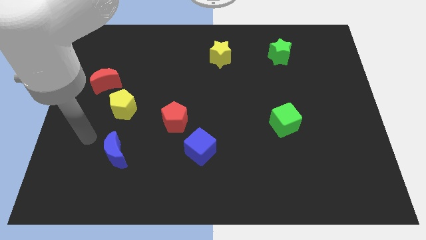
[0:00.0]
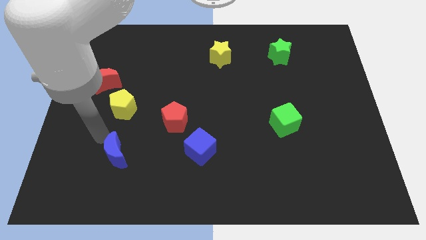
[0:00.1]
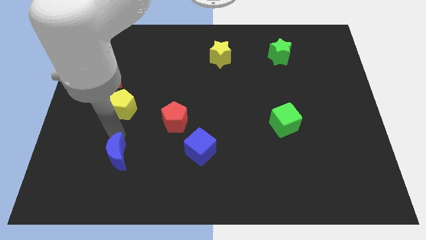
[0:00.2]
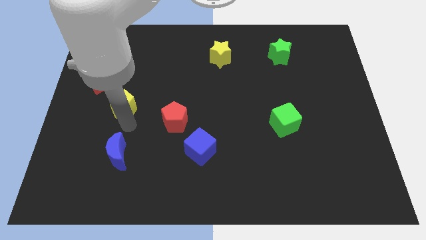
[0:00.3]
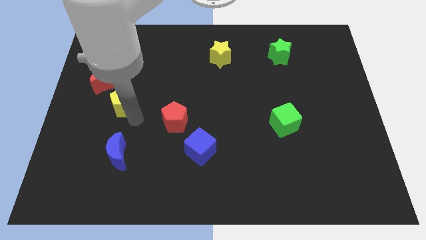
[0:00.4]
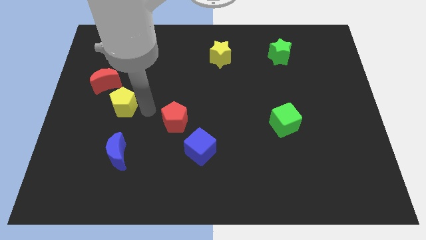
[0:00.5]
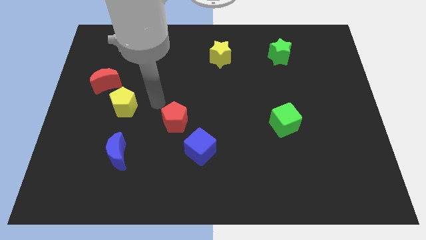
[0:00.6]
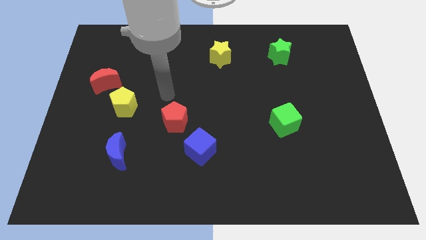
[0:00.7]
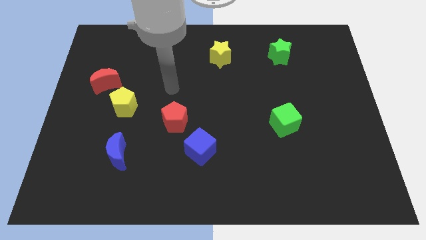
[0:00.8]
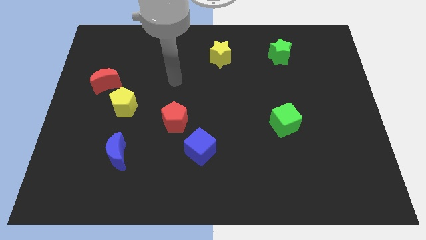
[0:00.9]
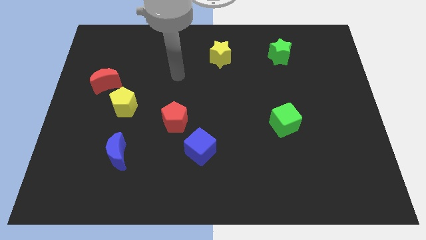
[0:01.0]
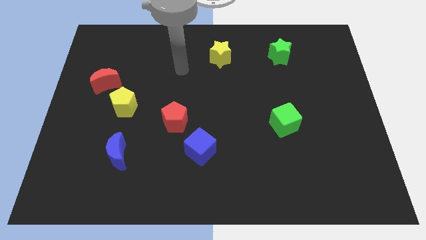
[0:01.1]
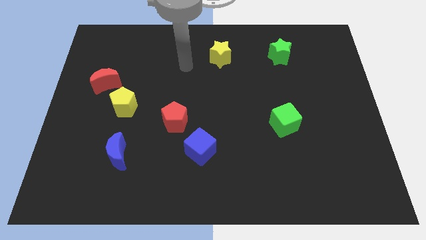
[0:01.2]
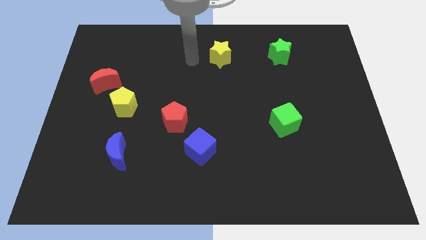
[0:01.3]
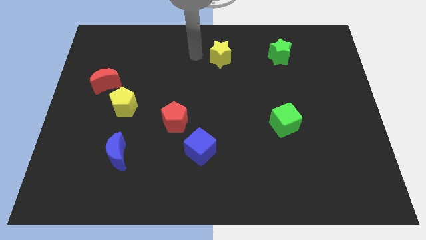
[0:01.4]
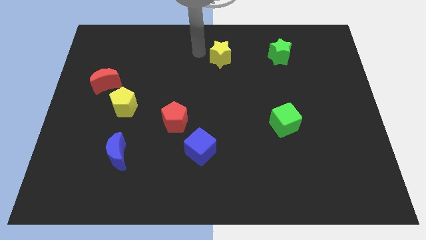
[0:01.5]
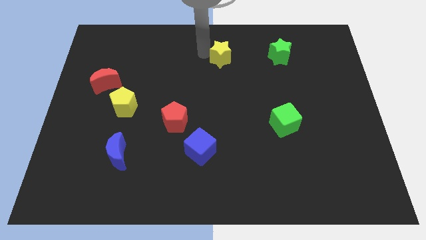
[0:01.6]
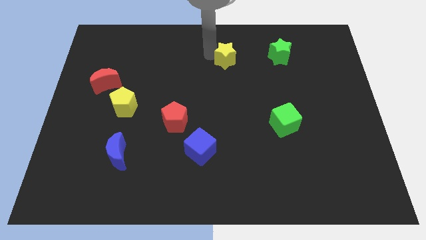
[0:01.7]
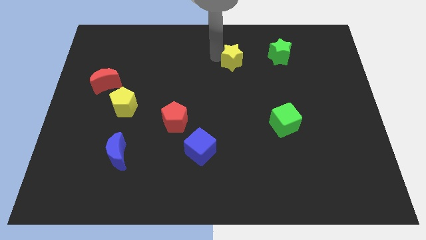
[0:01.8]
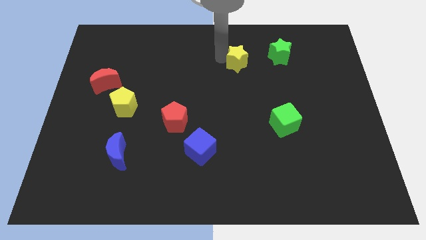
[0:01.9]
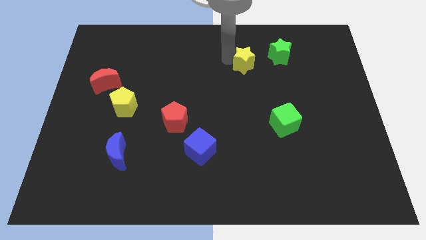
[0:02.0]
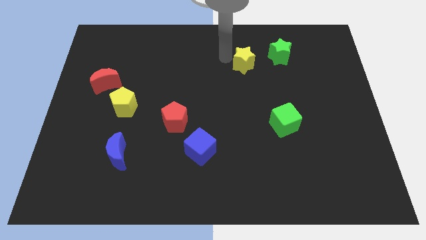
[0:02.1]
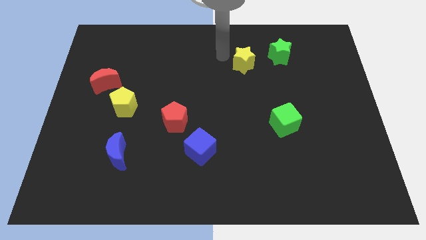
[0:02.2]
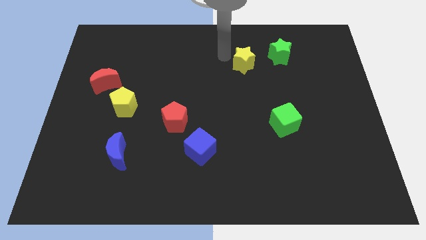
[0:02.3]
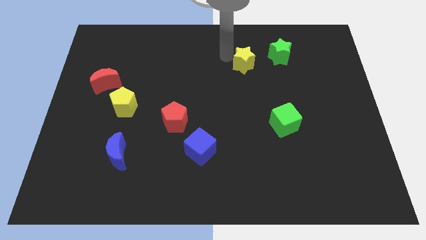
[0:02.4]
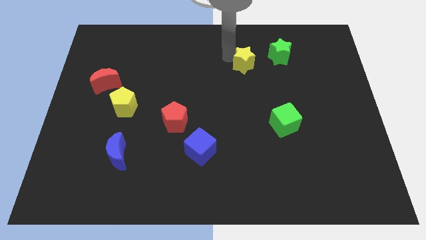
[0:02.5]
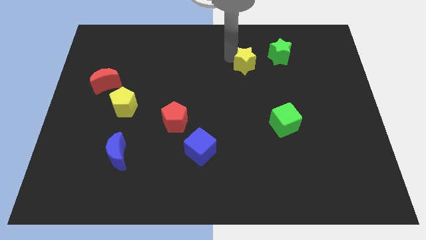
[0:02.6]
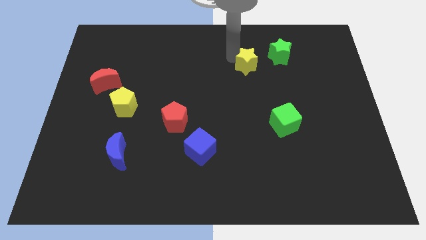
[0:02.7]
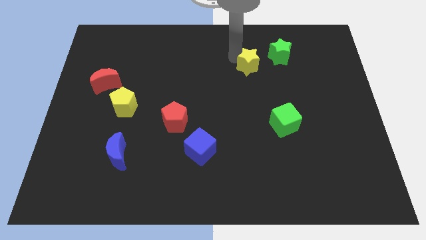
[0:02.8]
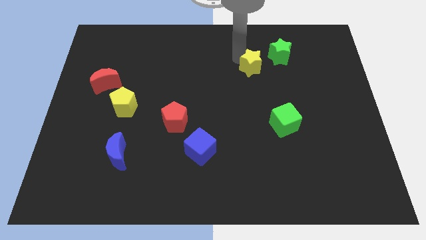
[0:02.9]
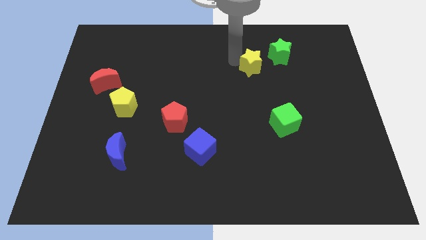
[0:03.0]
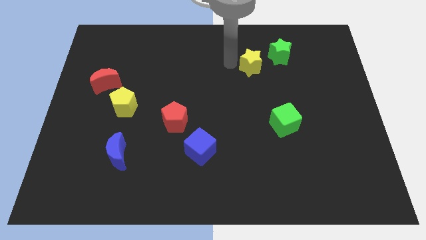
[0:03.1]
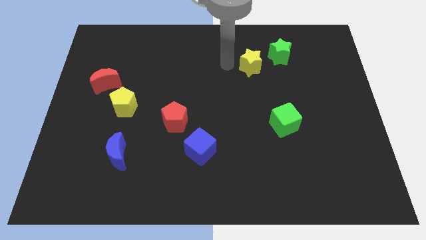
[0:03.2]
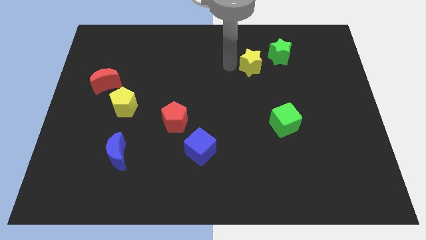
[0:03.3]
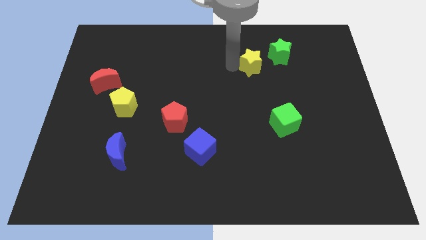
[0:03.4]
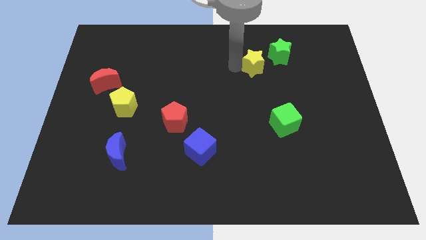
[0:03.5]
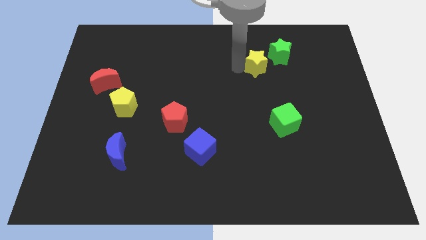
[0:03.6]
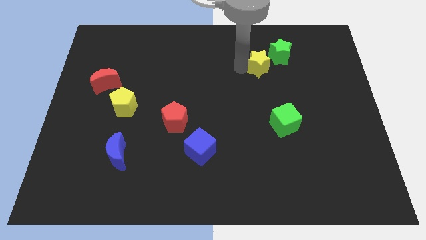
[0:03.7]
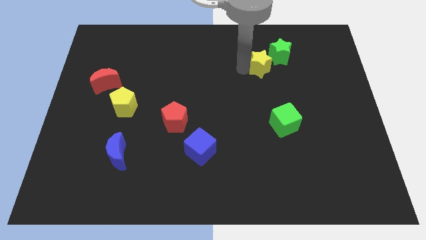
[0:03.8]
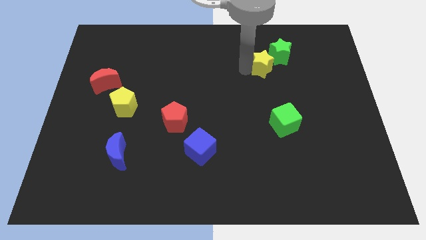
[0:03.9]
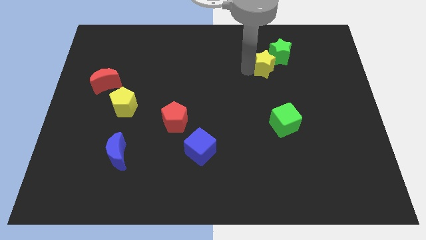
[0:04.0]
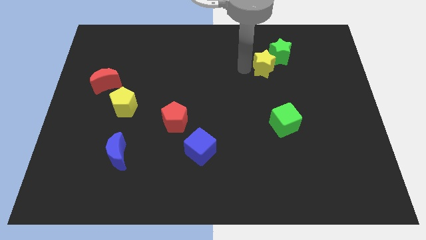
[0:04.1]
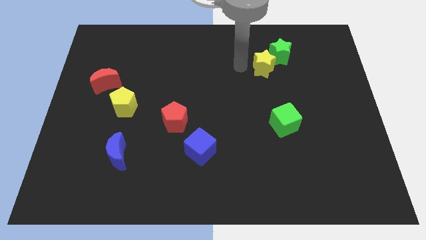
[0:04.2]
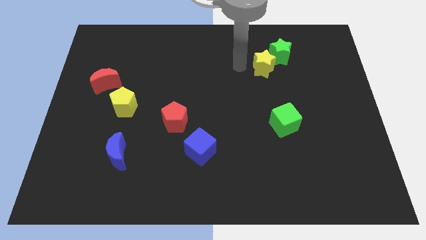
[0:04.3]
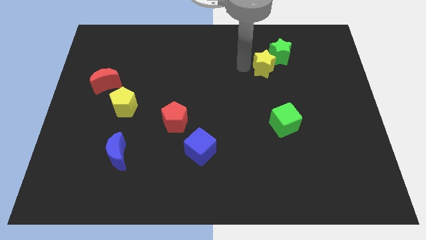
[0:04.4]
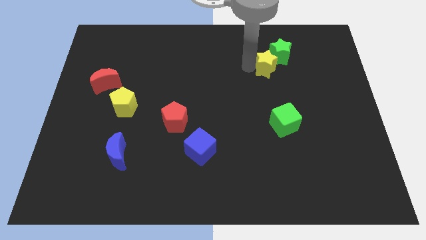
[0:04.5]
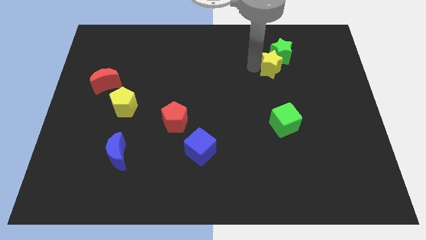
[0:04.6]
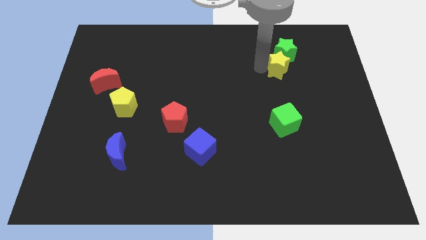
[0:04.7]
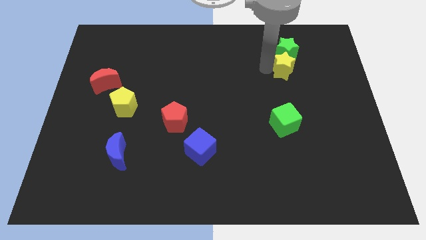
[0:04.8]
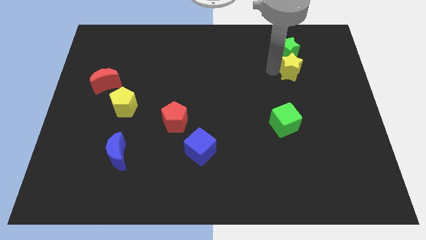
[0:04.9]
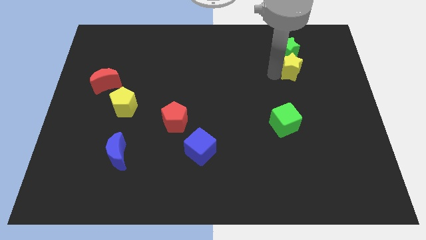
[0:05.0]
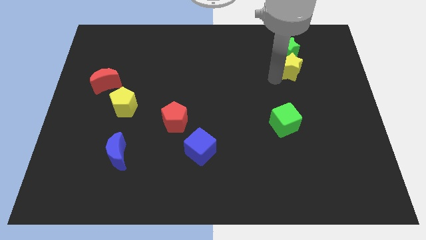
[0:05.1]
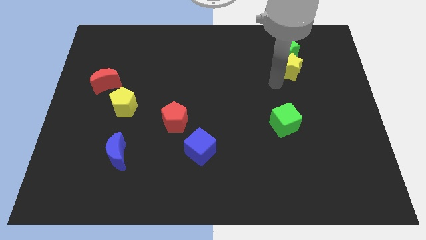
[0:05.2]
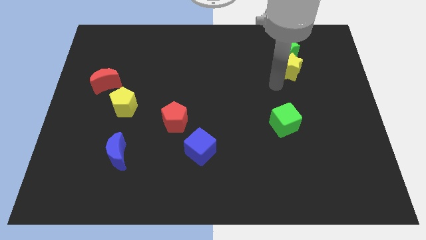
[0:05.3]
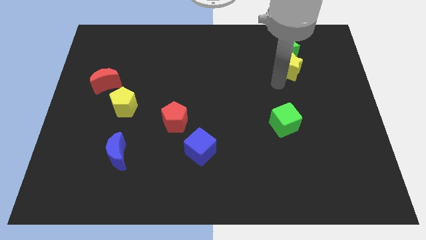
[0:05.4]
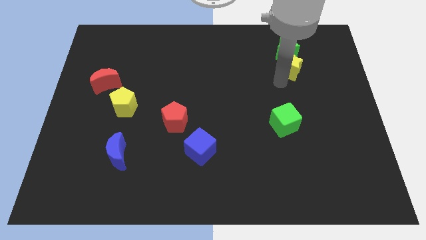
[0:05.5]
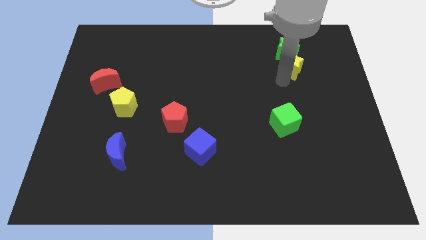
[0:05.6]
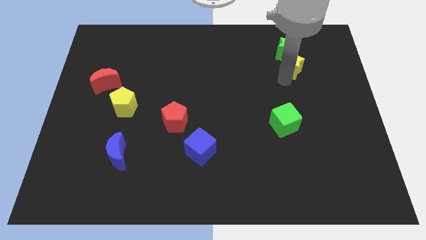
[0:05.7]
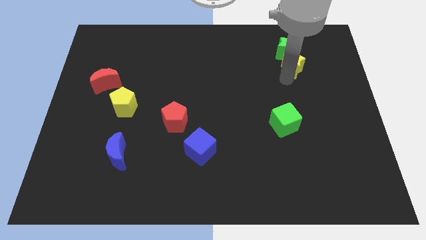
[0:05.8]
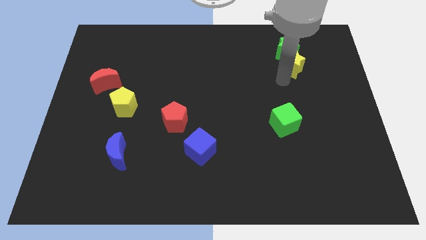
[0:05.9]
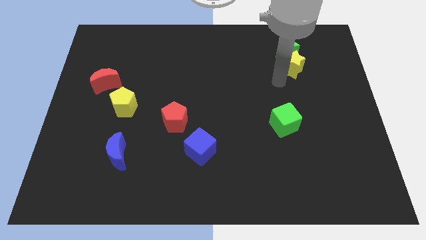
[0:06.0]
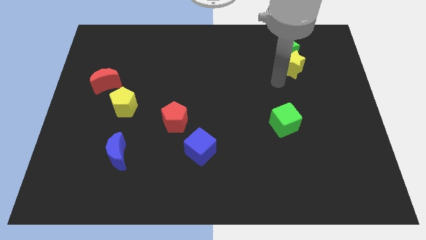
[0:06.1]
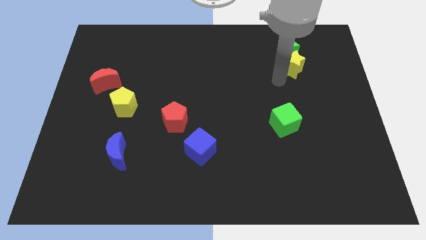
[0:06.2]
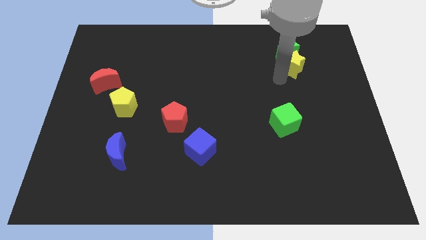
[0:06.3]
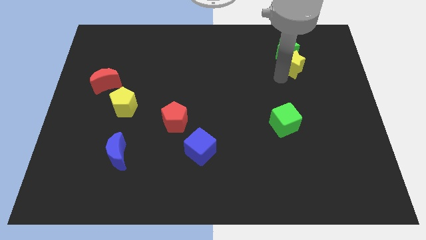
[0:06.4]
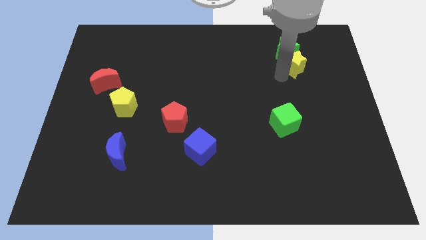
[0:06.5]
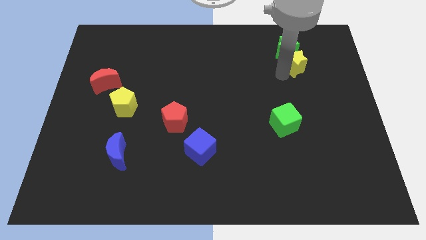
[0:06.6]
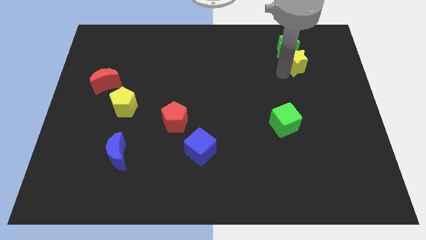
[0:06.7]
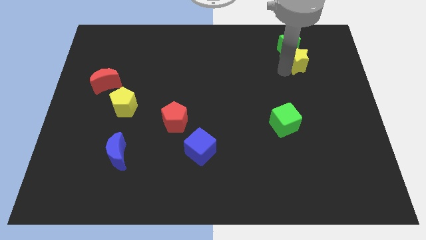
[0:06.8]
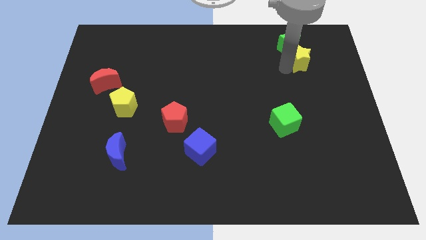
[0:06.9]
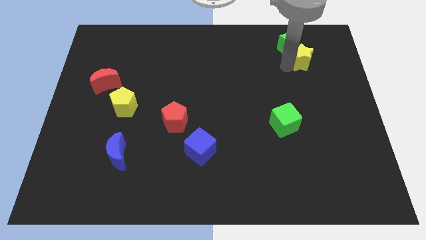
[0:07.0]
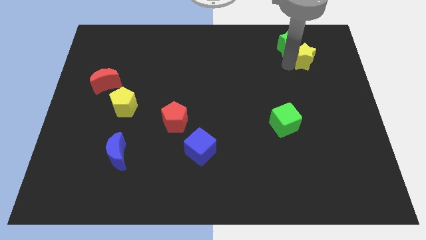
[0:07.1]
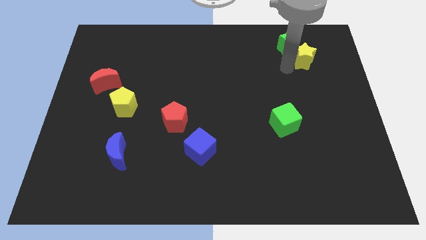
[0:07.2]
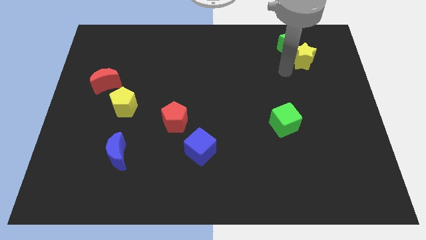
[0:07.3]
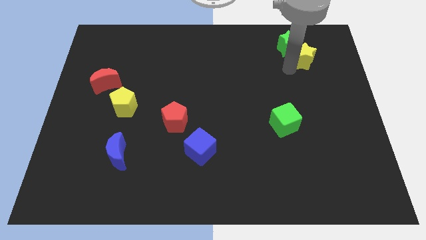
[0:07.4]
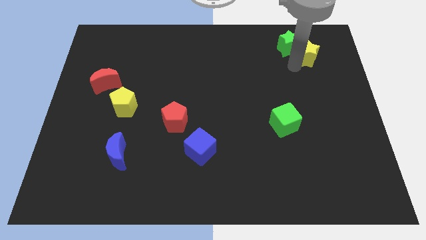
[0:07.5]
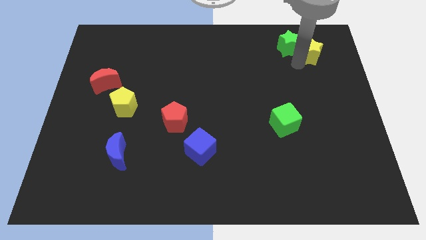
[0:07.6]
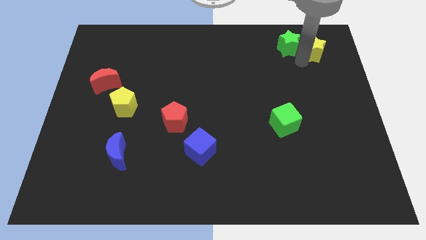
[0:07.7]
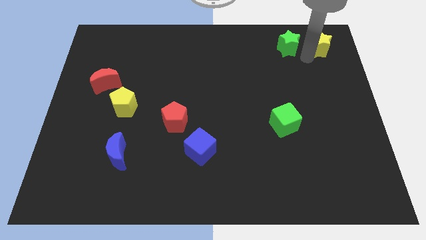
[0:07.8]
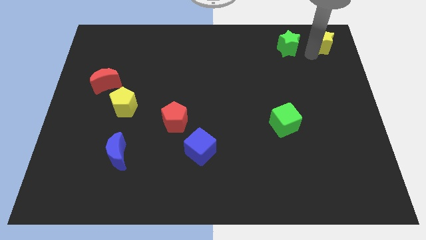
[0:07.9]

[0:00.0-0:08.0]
slide the yellow star to the upper right corner
